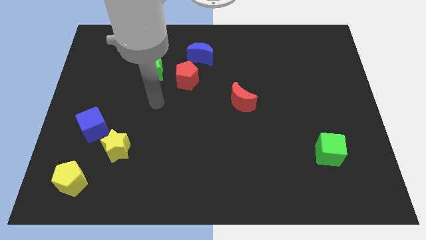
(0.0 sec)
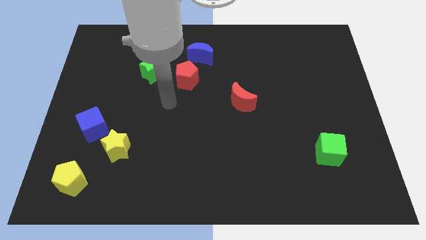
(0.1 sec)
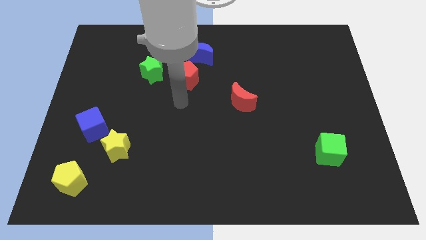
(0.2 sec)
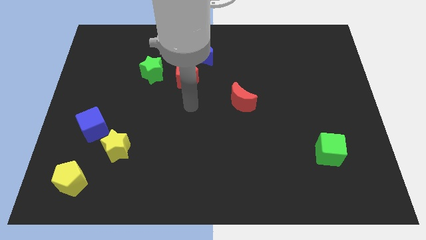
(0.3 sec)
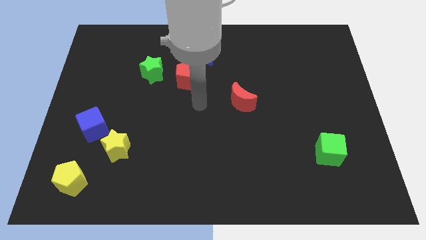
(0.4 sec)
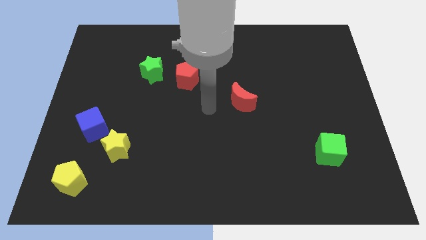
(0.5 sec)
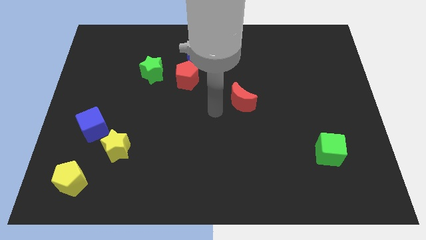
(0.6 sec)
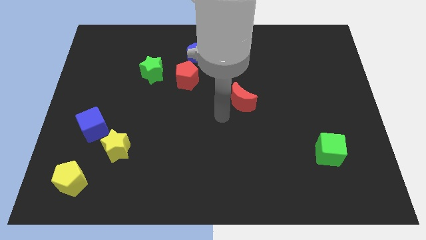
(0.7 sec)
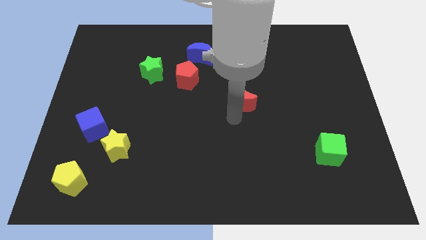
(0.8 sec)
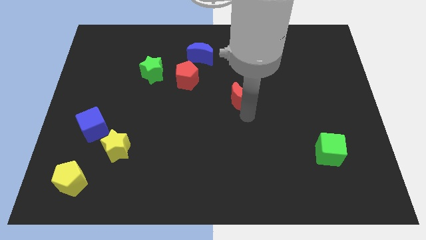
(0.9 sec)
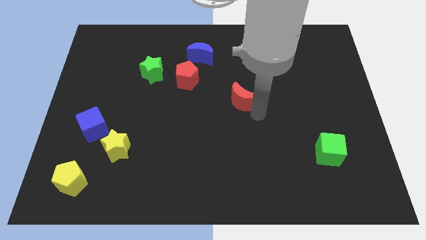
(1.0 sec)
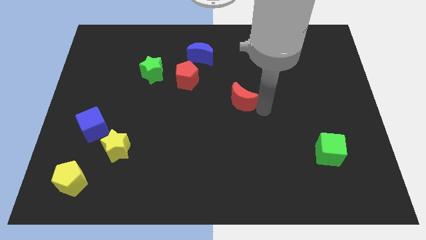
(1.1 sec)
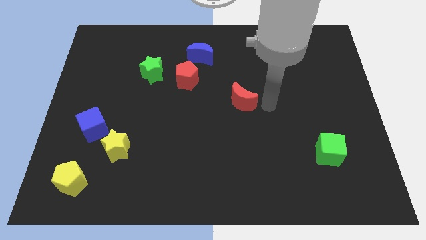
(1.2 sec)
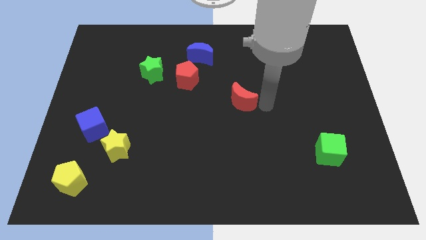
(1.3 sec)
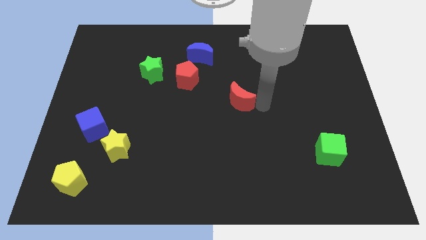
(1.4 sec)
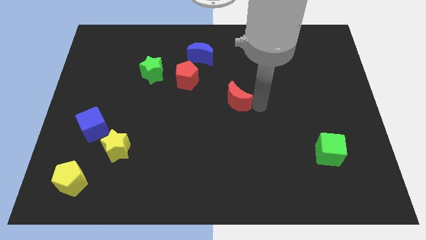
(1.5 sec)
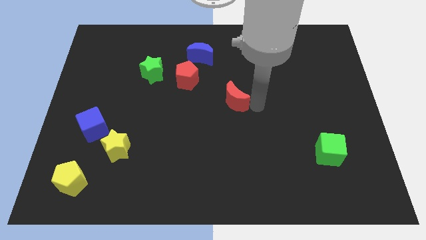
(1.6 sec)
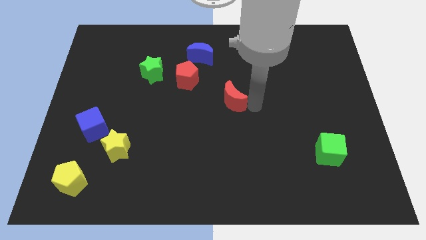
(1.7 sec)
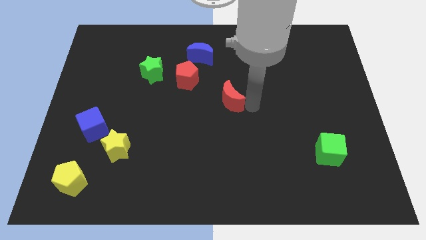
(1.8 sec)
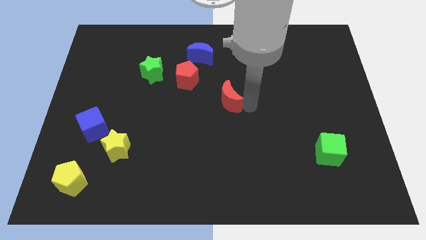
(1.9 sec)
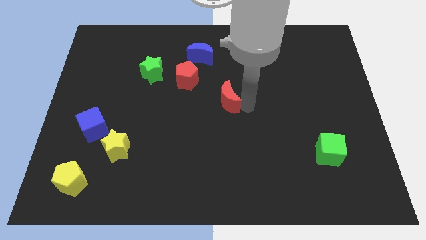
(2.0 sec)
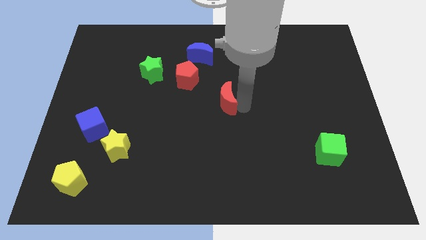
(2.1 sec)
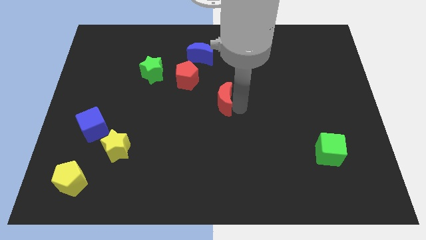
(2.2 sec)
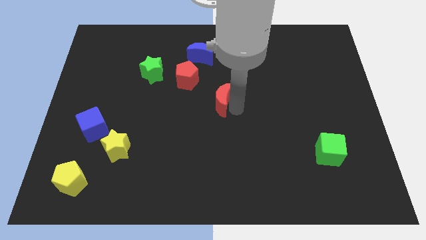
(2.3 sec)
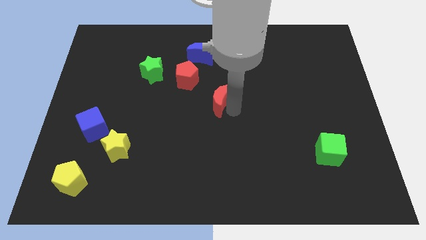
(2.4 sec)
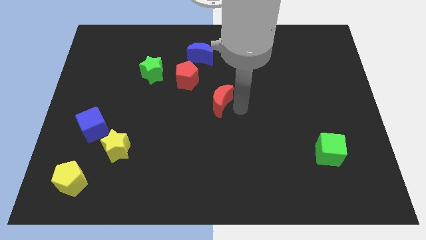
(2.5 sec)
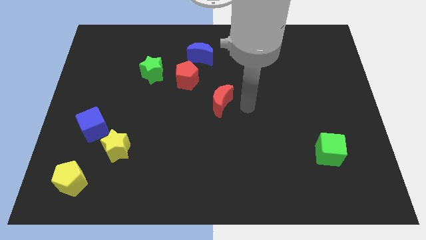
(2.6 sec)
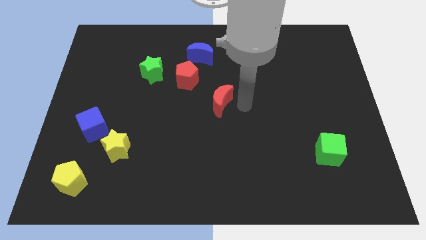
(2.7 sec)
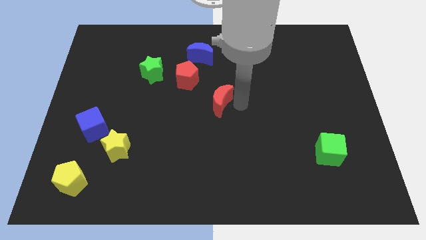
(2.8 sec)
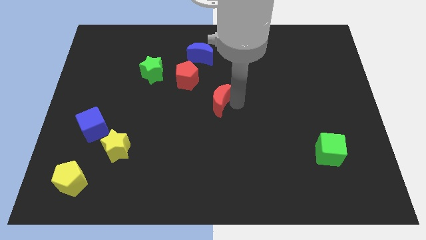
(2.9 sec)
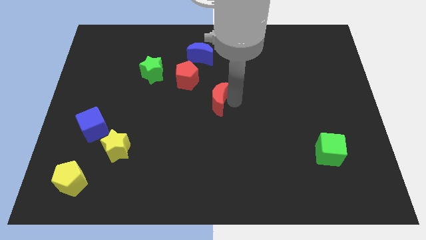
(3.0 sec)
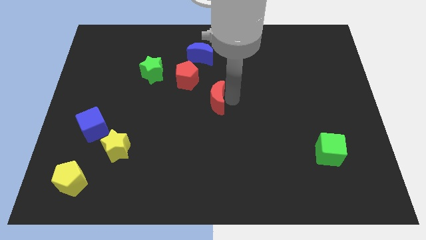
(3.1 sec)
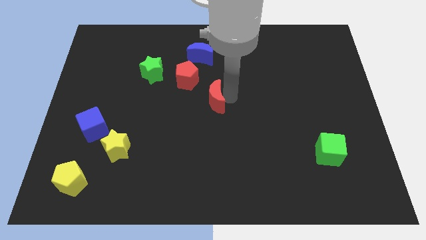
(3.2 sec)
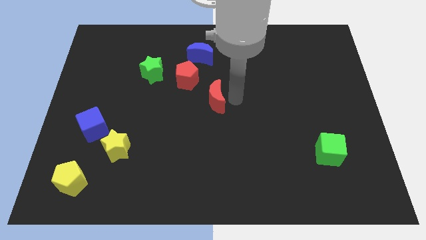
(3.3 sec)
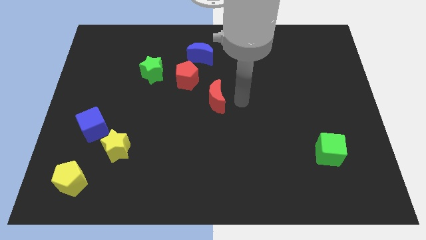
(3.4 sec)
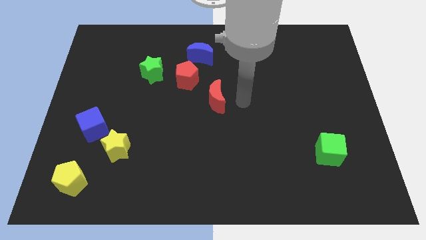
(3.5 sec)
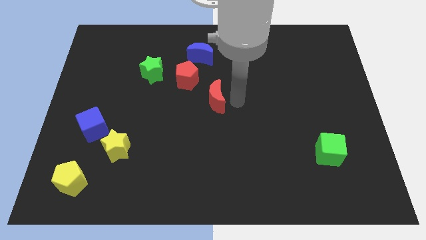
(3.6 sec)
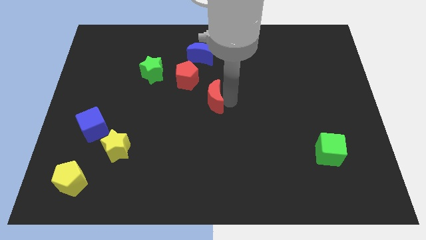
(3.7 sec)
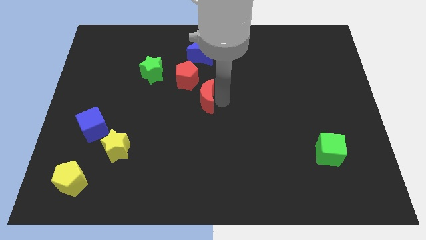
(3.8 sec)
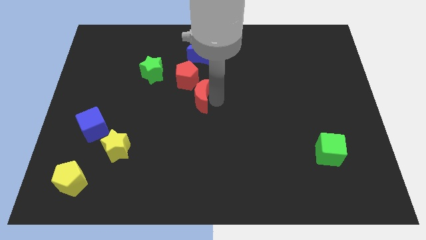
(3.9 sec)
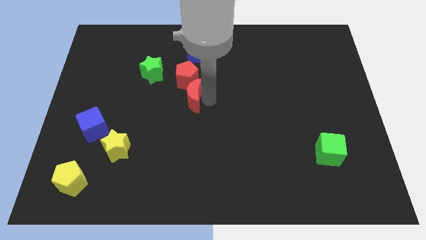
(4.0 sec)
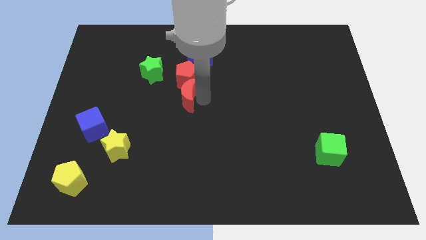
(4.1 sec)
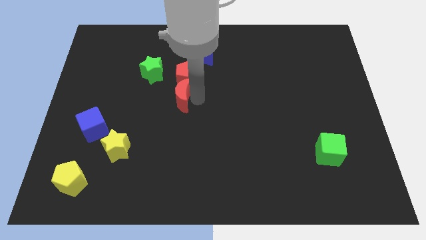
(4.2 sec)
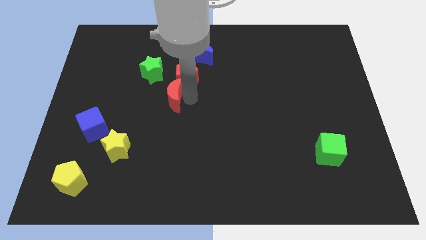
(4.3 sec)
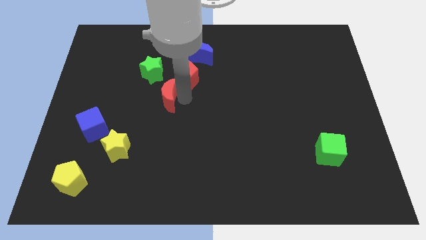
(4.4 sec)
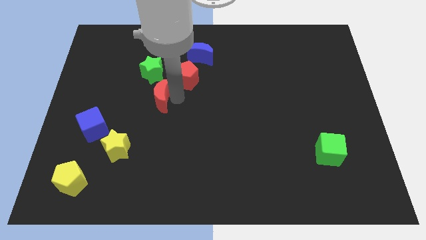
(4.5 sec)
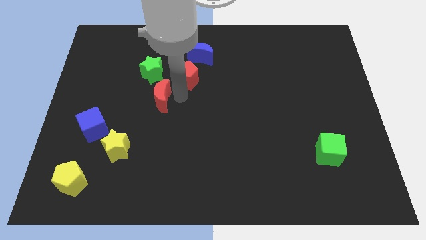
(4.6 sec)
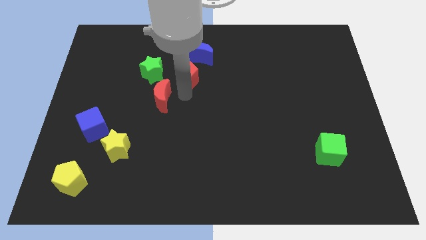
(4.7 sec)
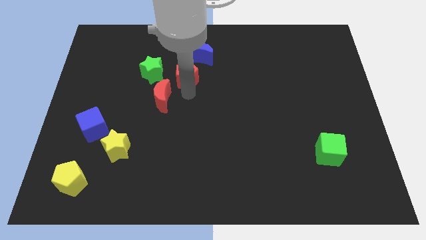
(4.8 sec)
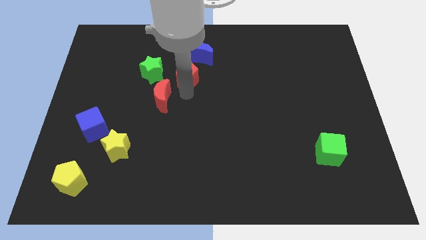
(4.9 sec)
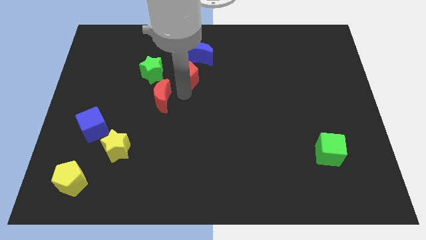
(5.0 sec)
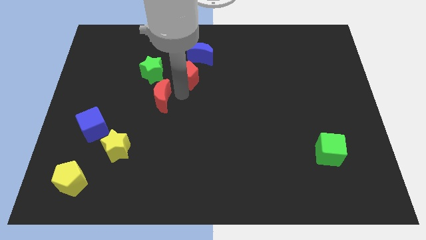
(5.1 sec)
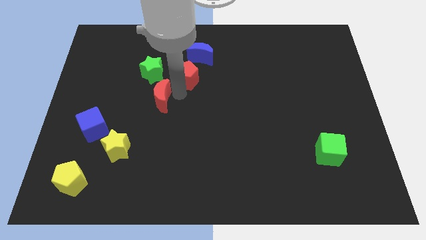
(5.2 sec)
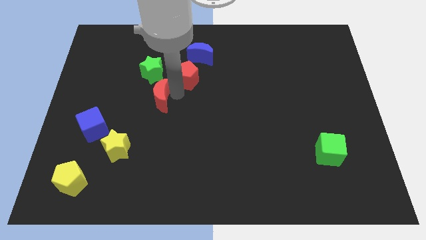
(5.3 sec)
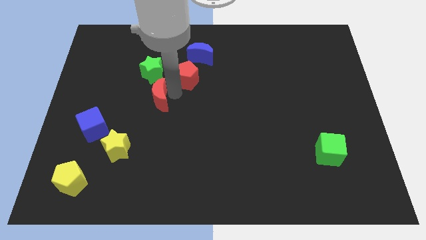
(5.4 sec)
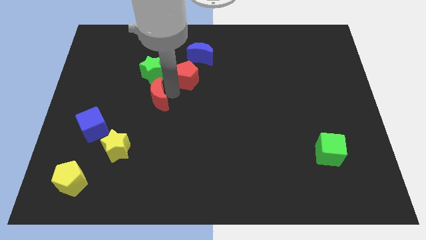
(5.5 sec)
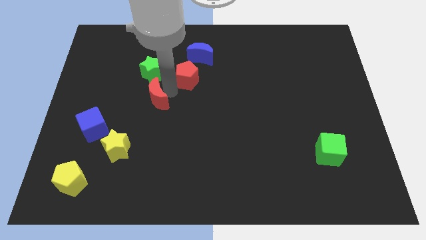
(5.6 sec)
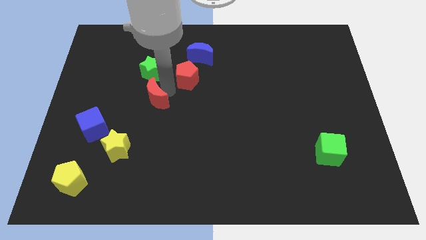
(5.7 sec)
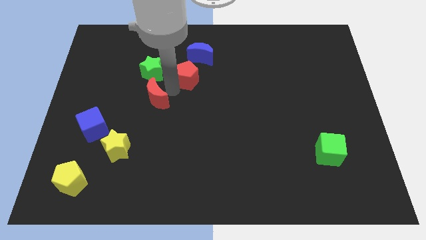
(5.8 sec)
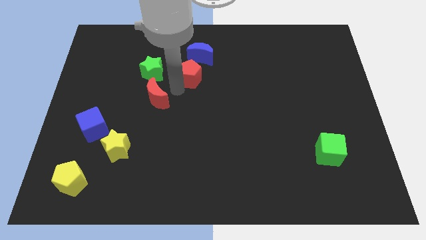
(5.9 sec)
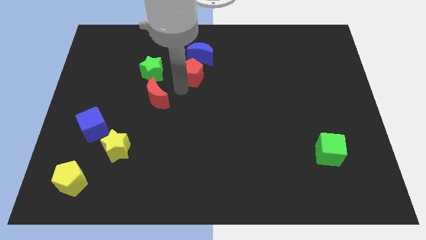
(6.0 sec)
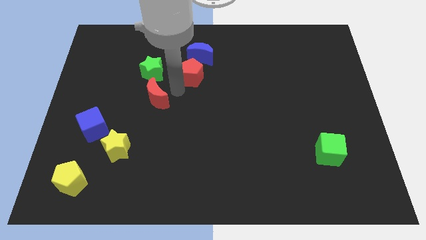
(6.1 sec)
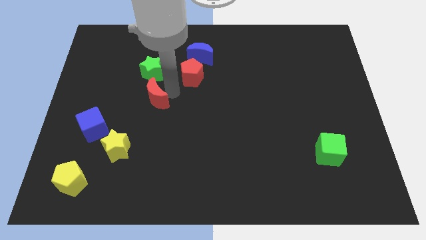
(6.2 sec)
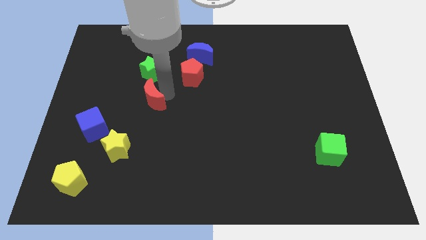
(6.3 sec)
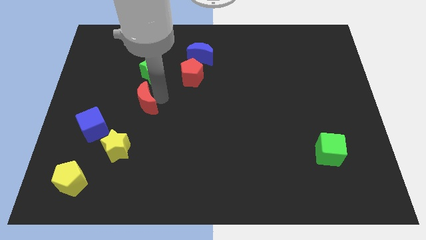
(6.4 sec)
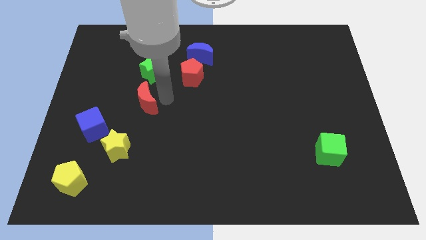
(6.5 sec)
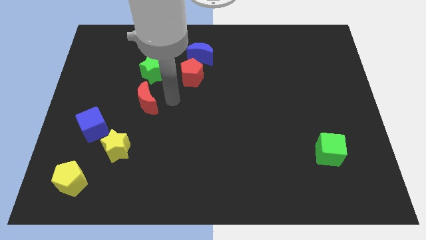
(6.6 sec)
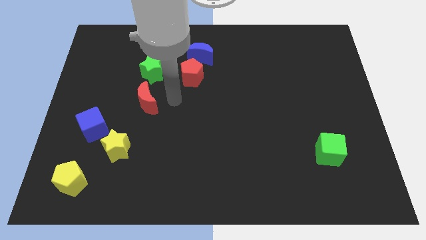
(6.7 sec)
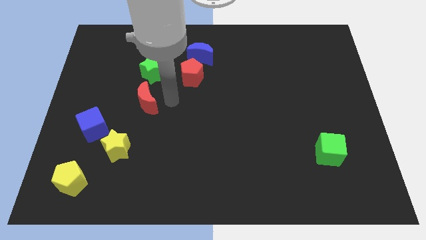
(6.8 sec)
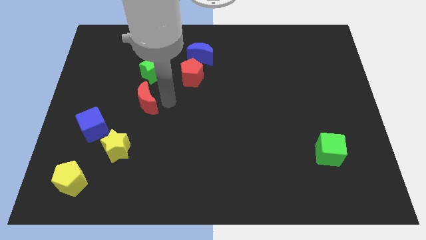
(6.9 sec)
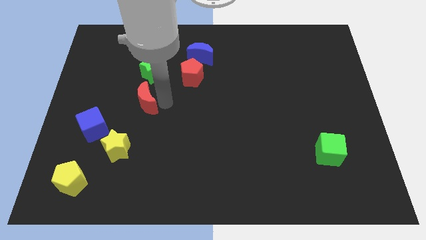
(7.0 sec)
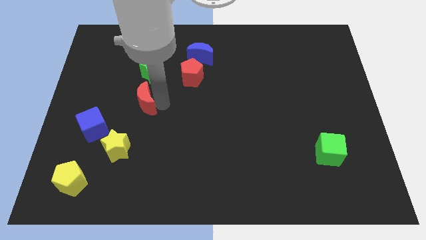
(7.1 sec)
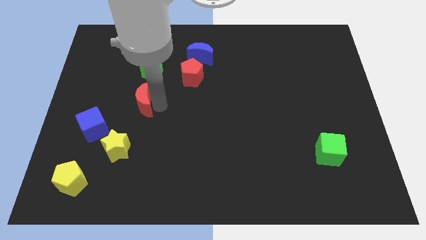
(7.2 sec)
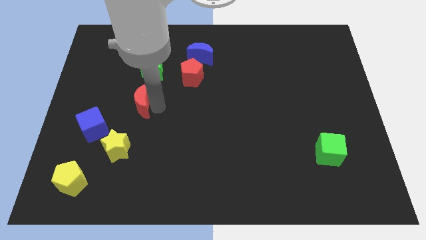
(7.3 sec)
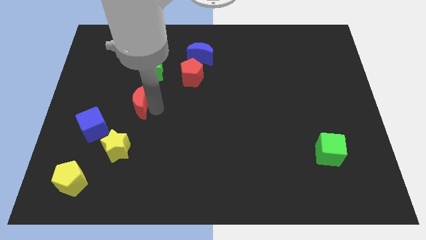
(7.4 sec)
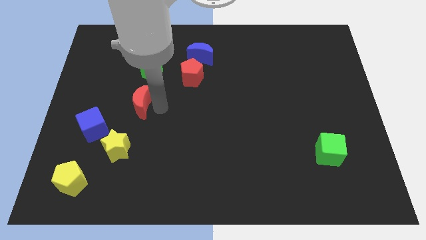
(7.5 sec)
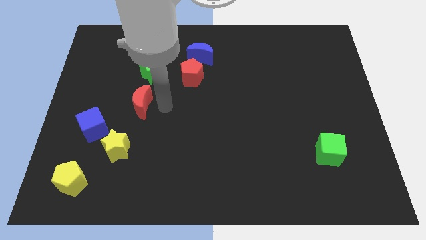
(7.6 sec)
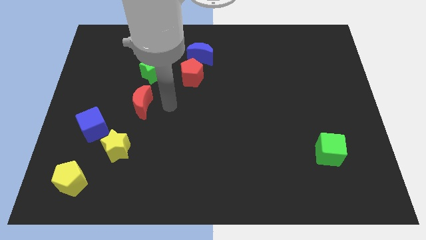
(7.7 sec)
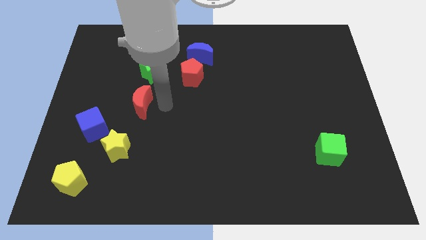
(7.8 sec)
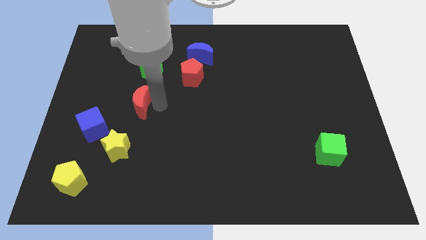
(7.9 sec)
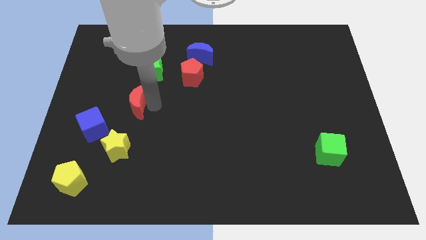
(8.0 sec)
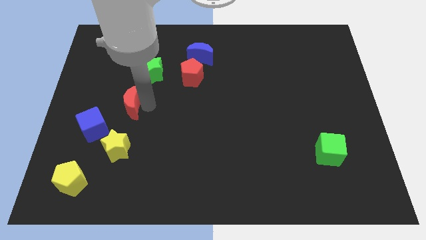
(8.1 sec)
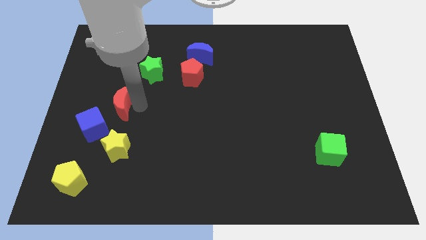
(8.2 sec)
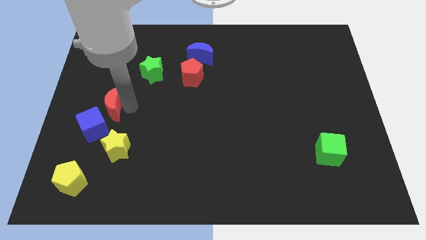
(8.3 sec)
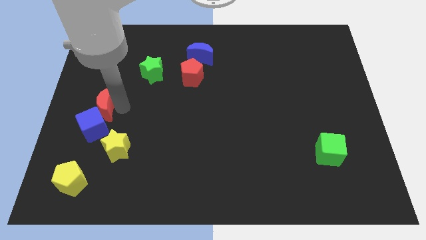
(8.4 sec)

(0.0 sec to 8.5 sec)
put the red moon to the left side of the board
